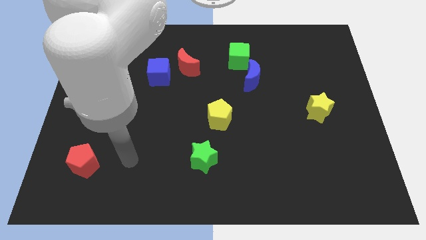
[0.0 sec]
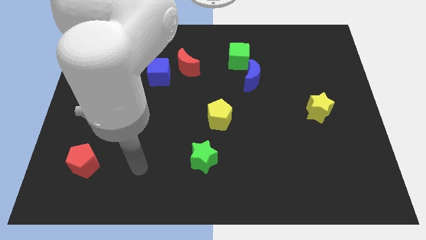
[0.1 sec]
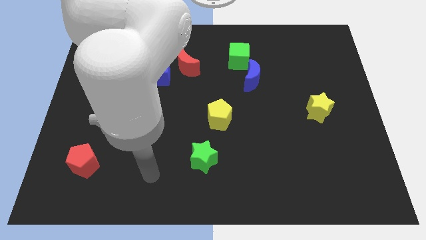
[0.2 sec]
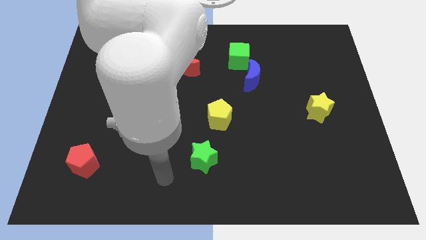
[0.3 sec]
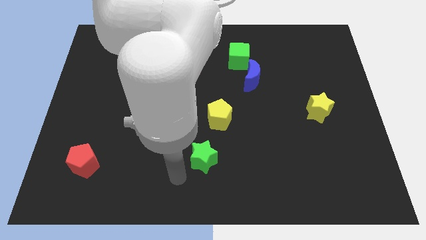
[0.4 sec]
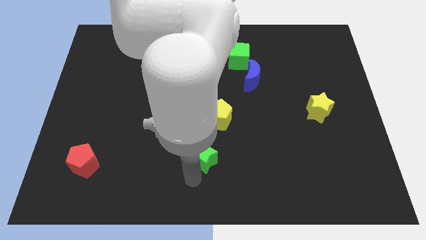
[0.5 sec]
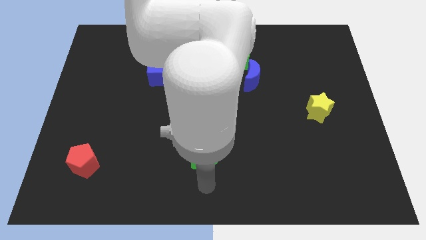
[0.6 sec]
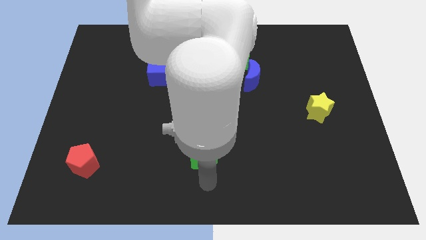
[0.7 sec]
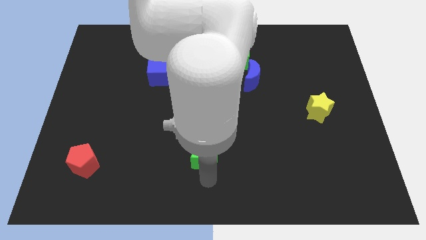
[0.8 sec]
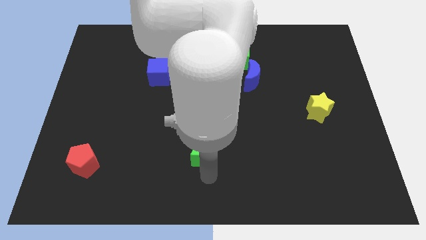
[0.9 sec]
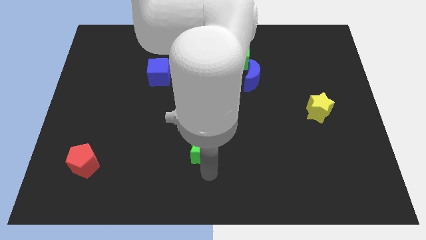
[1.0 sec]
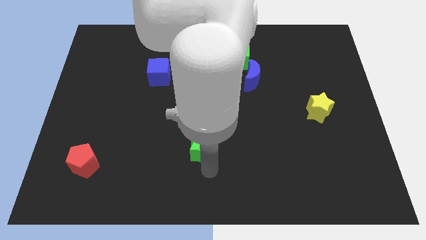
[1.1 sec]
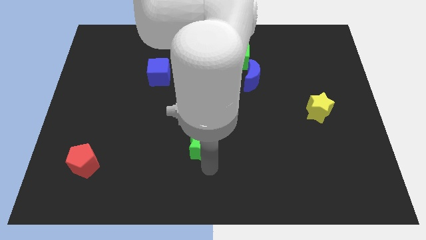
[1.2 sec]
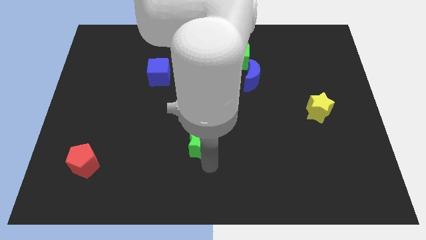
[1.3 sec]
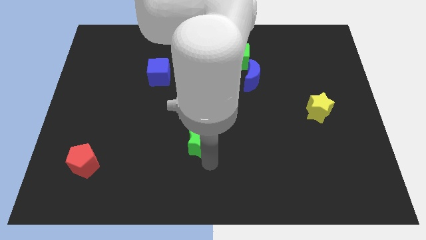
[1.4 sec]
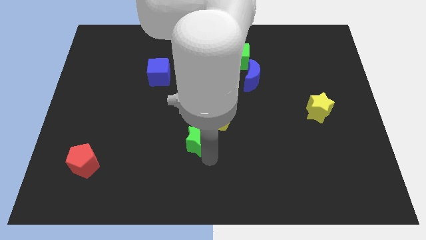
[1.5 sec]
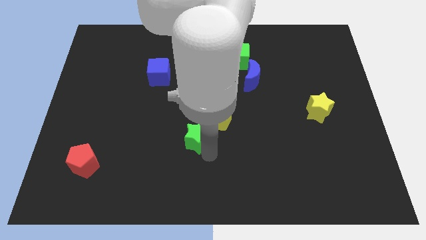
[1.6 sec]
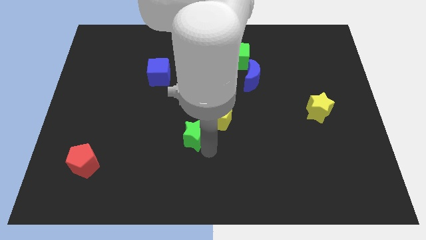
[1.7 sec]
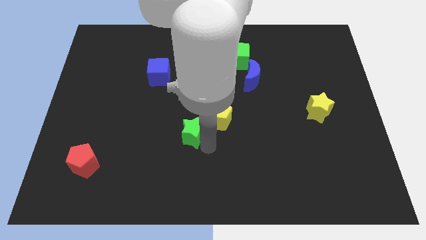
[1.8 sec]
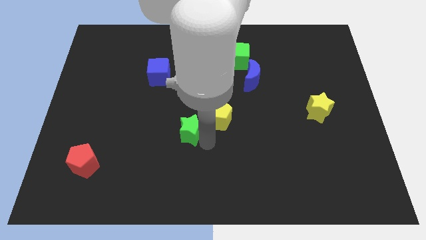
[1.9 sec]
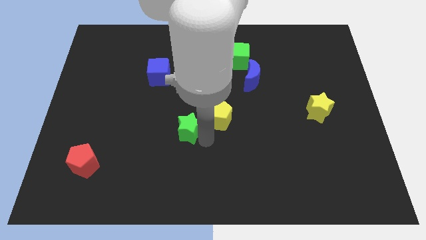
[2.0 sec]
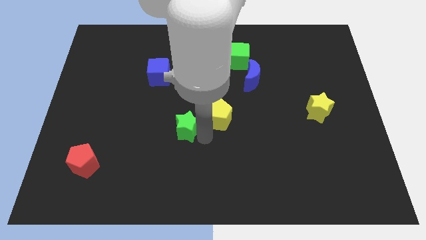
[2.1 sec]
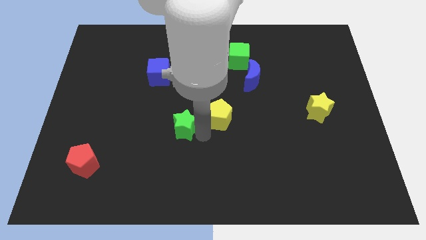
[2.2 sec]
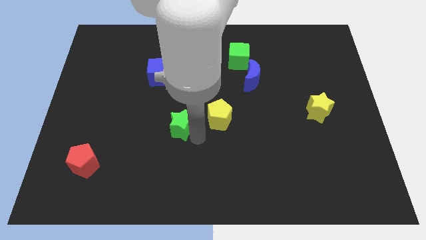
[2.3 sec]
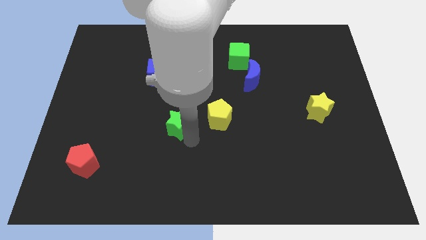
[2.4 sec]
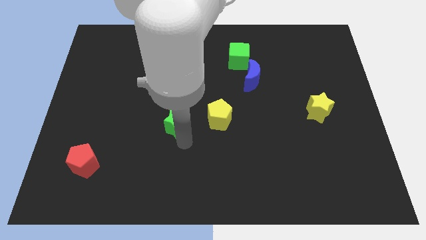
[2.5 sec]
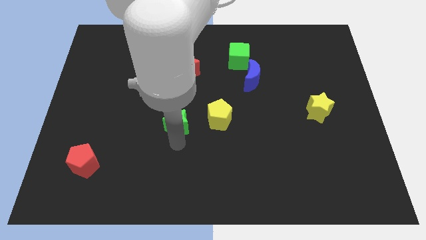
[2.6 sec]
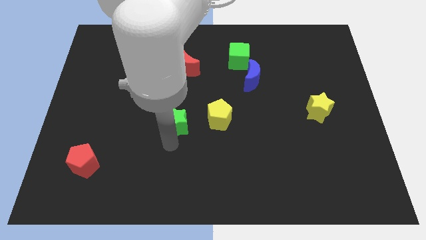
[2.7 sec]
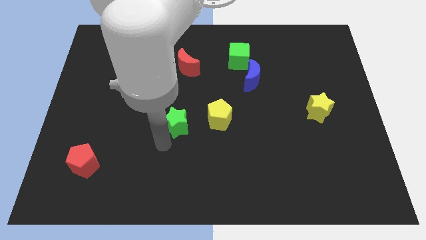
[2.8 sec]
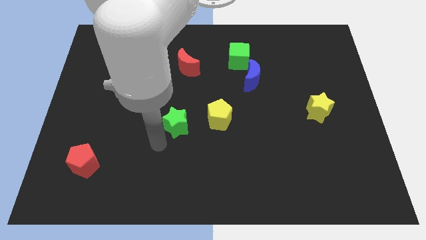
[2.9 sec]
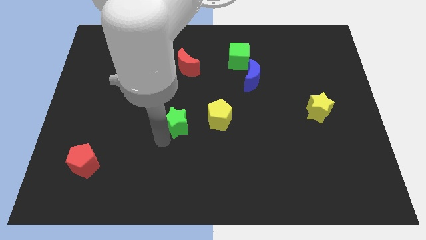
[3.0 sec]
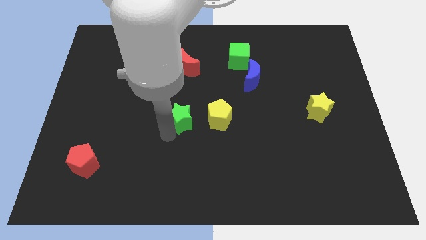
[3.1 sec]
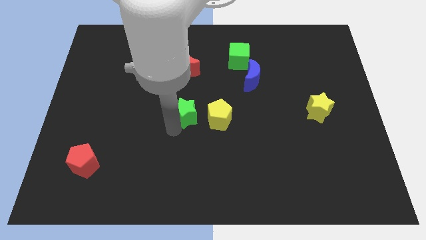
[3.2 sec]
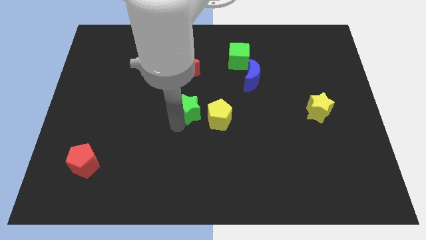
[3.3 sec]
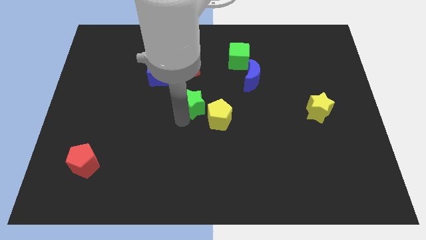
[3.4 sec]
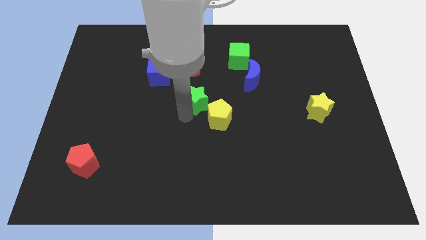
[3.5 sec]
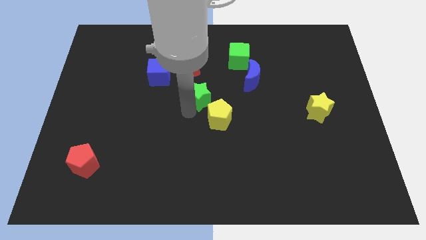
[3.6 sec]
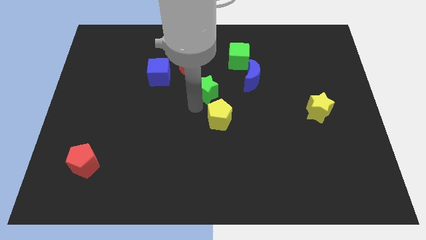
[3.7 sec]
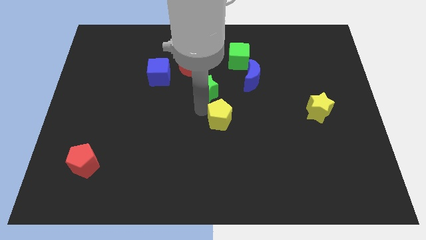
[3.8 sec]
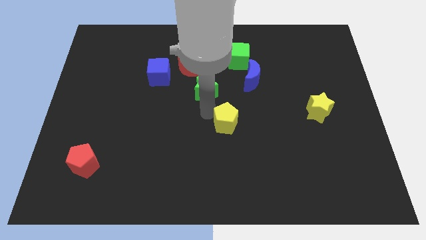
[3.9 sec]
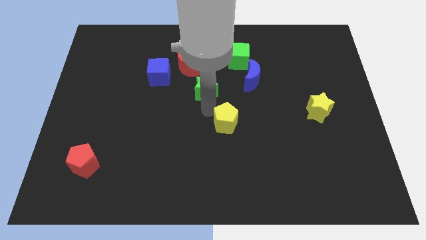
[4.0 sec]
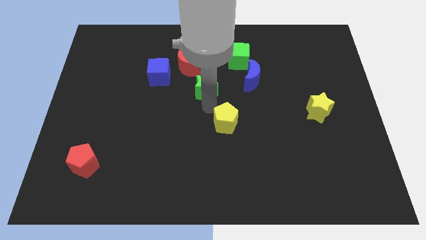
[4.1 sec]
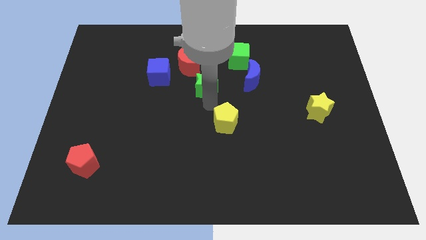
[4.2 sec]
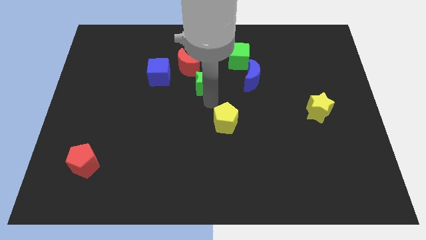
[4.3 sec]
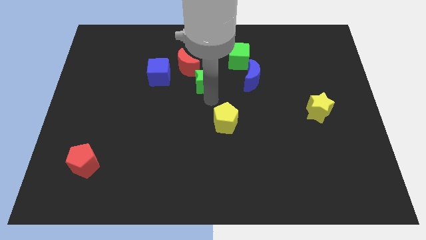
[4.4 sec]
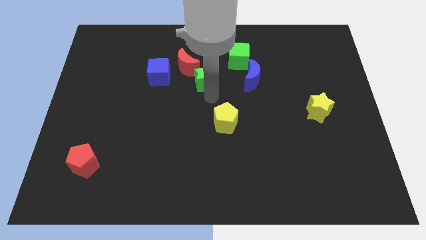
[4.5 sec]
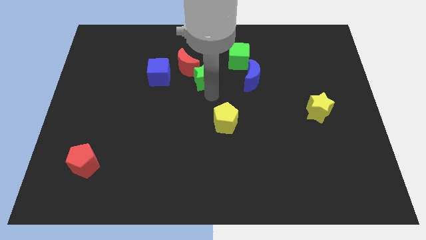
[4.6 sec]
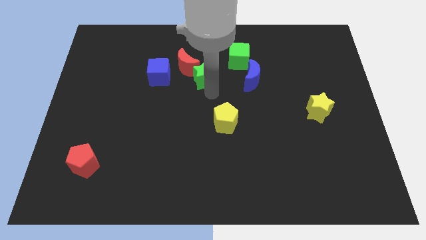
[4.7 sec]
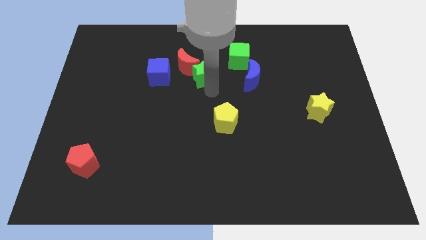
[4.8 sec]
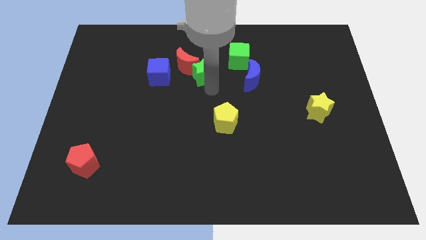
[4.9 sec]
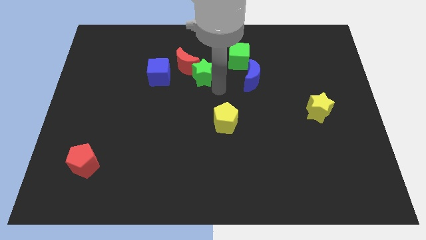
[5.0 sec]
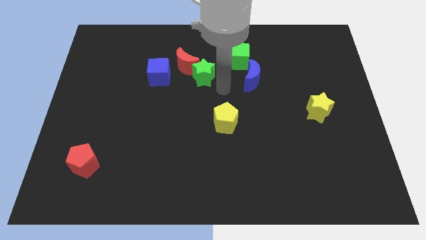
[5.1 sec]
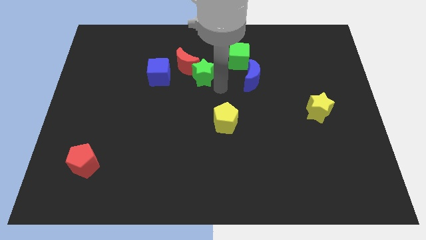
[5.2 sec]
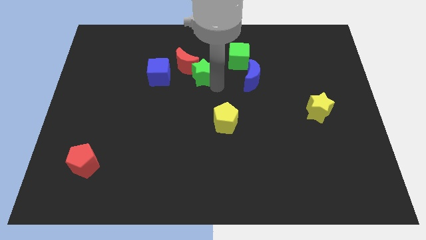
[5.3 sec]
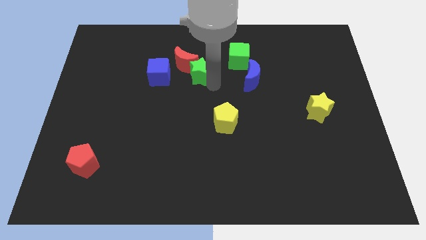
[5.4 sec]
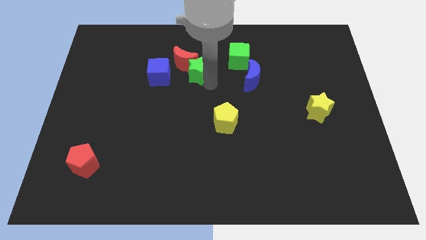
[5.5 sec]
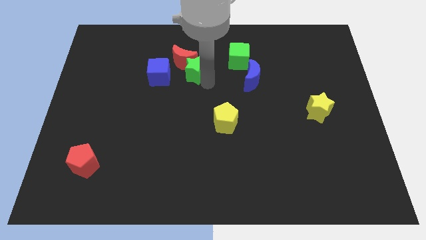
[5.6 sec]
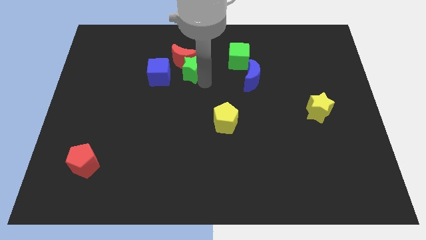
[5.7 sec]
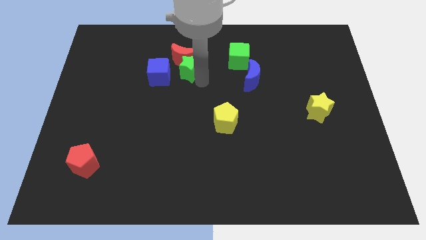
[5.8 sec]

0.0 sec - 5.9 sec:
put the green star to the top right side of the blue cube

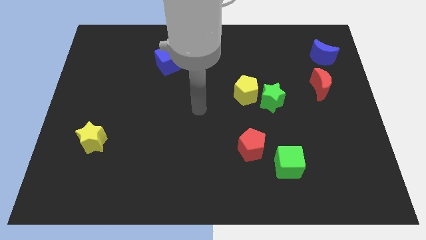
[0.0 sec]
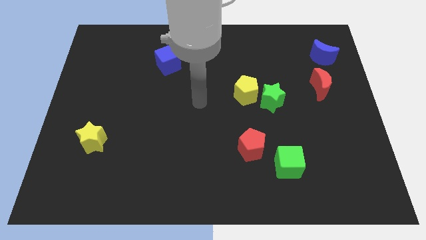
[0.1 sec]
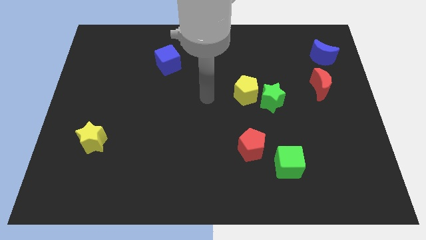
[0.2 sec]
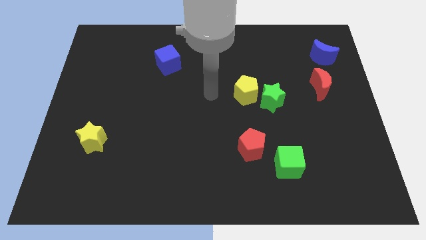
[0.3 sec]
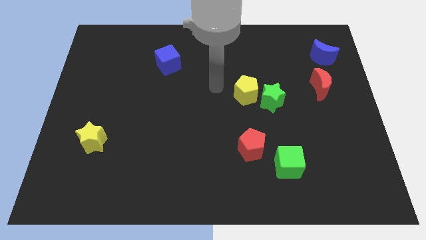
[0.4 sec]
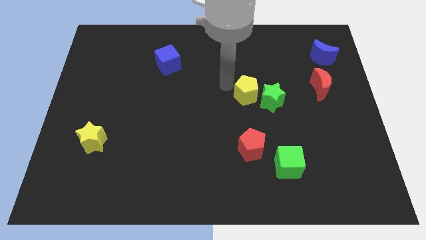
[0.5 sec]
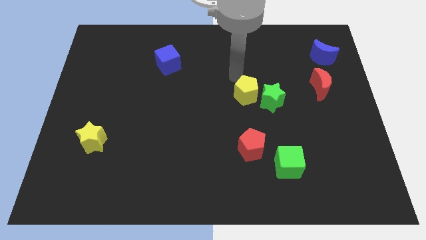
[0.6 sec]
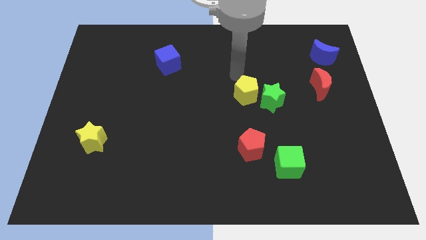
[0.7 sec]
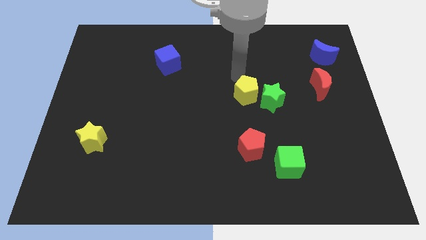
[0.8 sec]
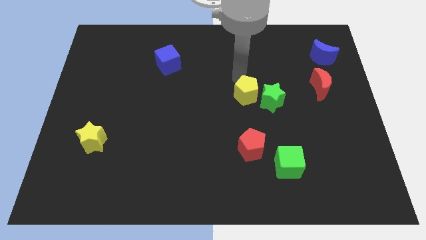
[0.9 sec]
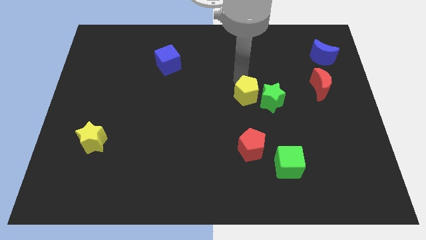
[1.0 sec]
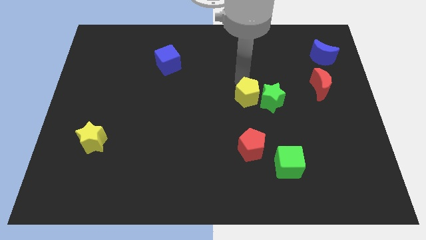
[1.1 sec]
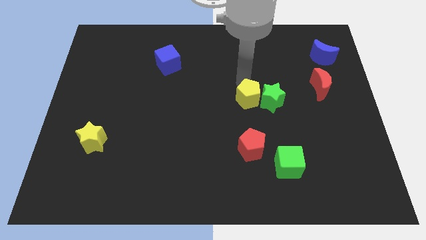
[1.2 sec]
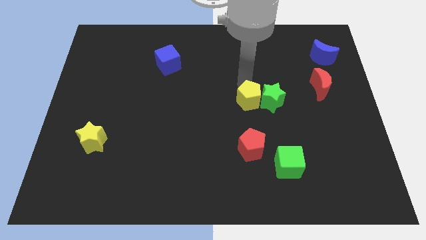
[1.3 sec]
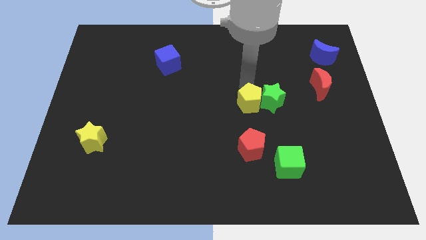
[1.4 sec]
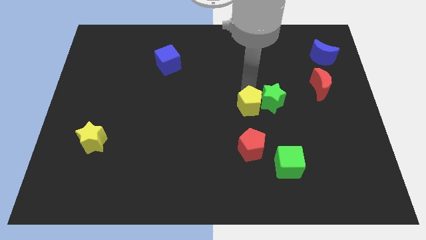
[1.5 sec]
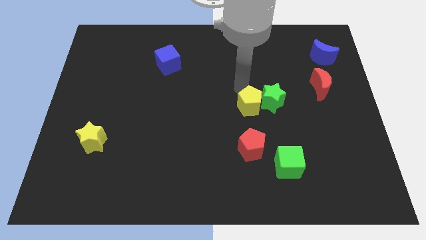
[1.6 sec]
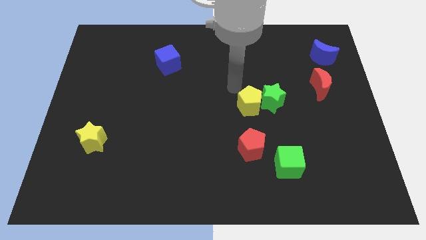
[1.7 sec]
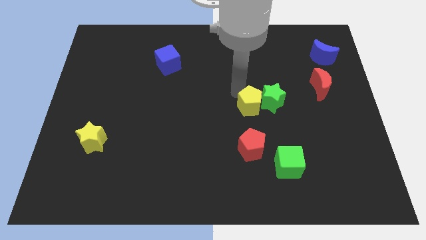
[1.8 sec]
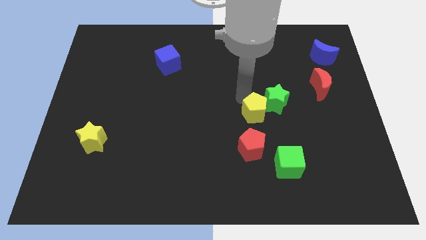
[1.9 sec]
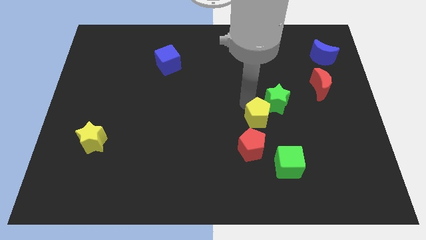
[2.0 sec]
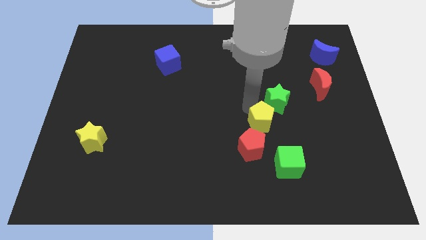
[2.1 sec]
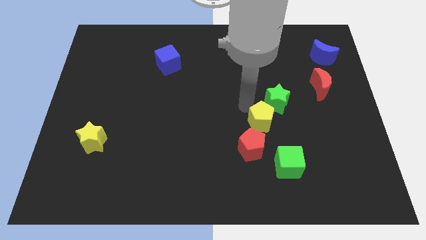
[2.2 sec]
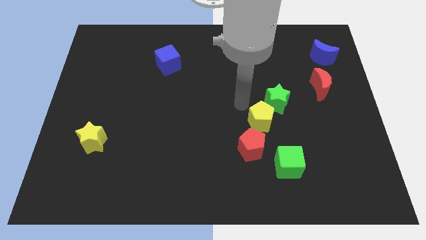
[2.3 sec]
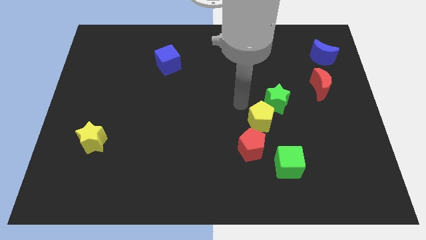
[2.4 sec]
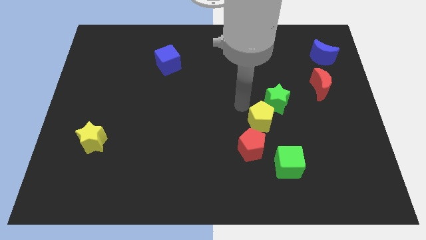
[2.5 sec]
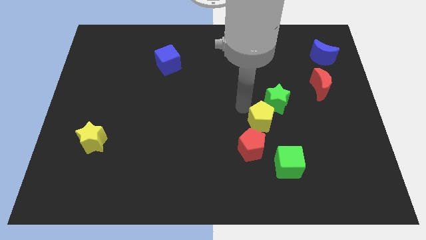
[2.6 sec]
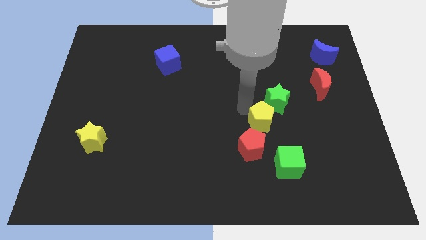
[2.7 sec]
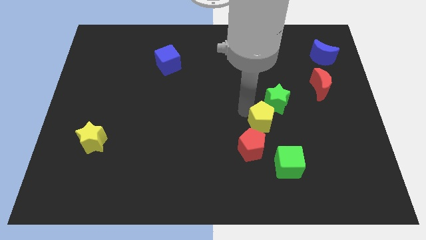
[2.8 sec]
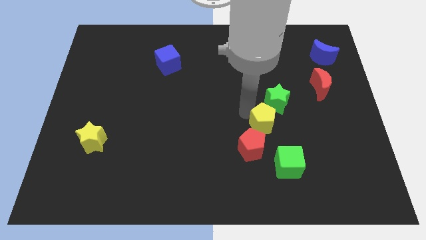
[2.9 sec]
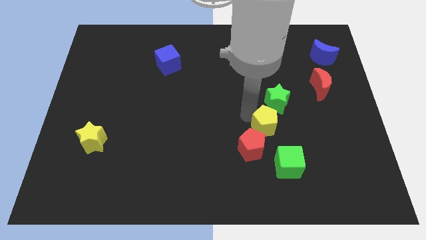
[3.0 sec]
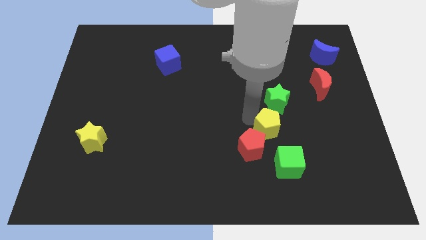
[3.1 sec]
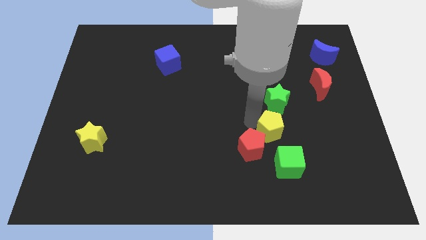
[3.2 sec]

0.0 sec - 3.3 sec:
slide the yellow pentagon to the right of the red pentagon
